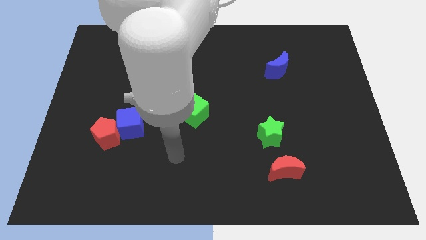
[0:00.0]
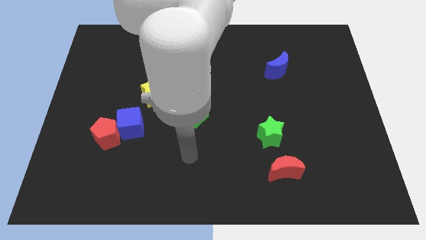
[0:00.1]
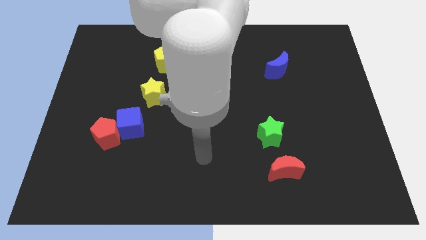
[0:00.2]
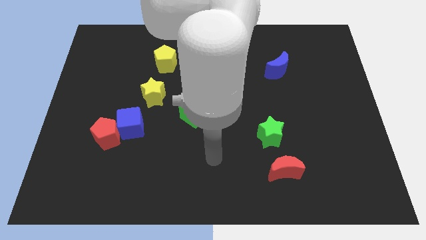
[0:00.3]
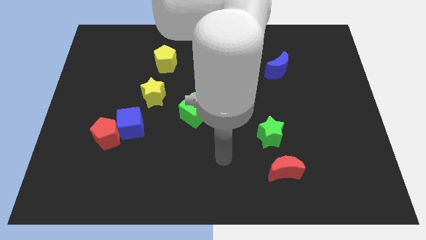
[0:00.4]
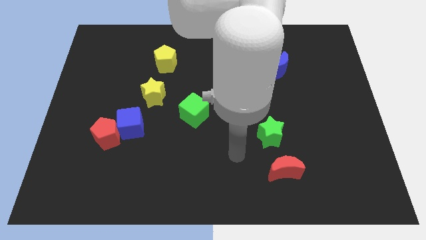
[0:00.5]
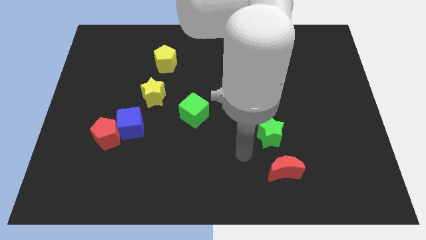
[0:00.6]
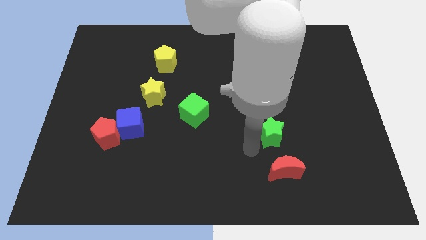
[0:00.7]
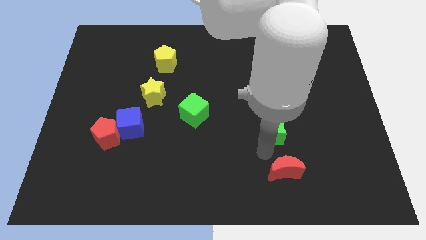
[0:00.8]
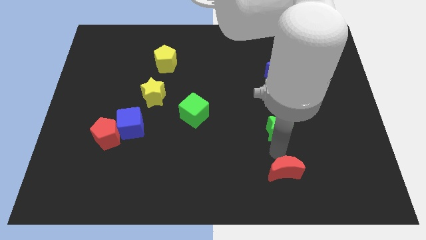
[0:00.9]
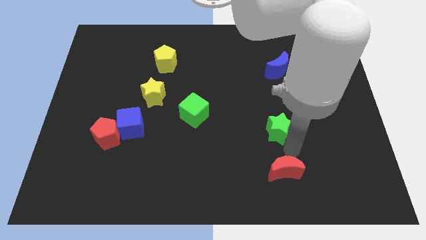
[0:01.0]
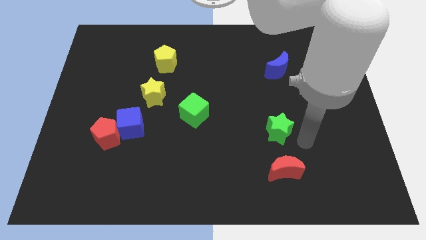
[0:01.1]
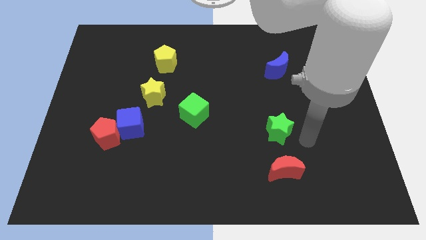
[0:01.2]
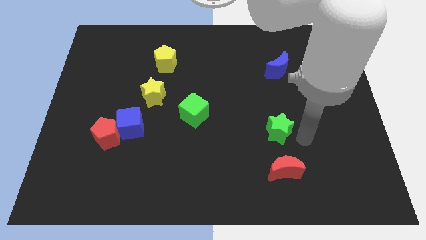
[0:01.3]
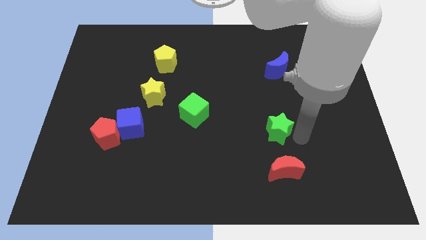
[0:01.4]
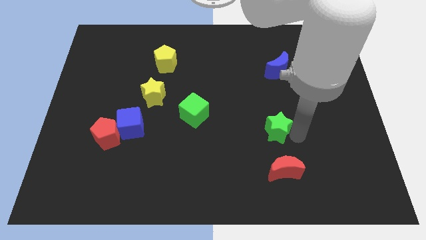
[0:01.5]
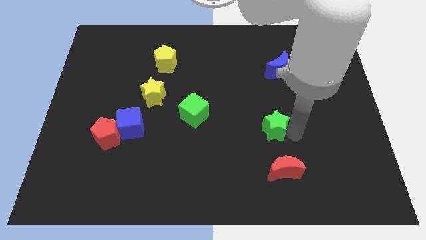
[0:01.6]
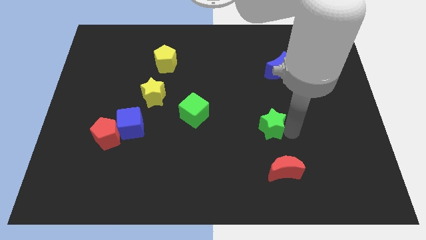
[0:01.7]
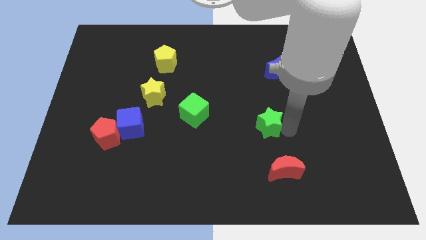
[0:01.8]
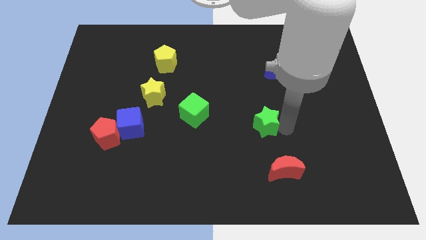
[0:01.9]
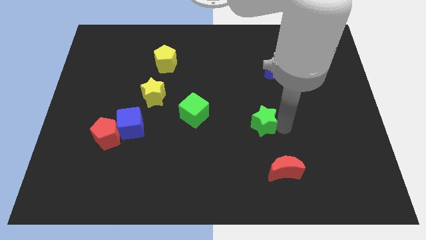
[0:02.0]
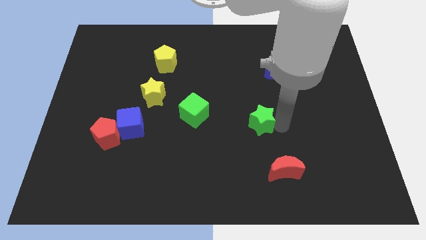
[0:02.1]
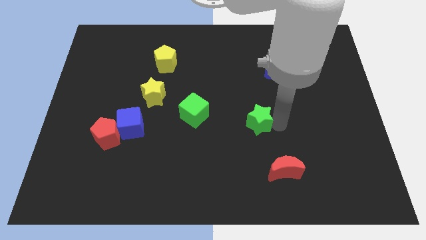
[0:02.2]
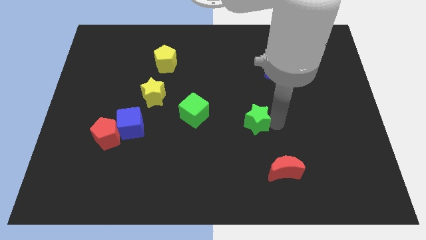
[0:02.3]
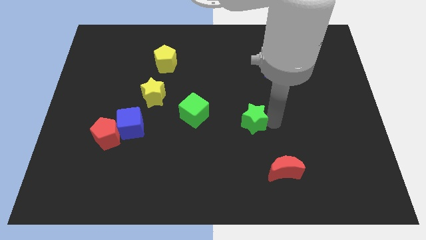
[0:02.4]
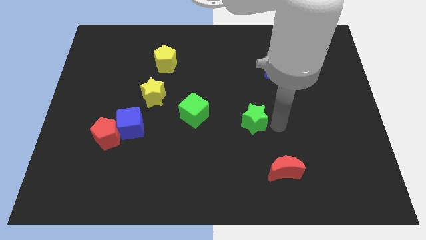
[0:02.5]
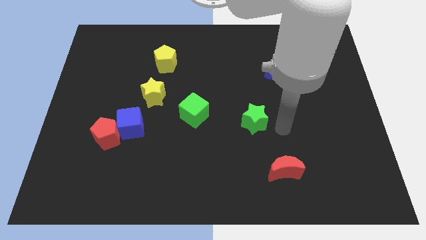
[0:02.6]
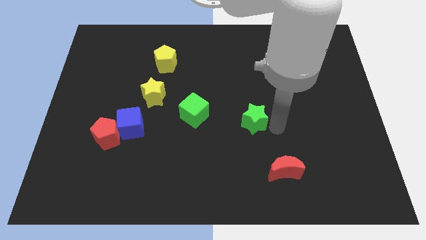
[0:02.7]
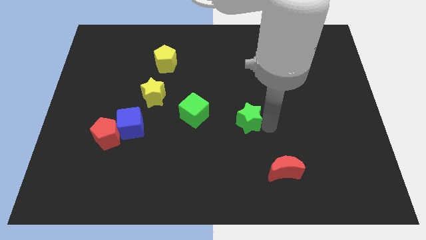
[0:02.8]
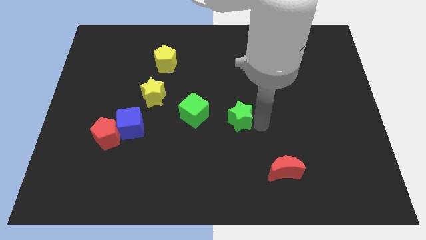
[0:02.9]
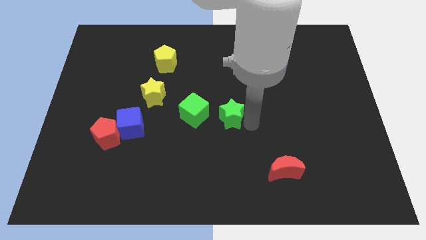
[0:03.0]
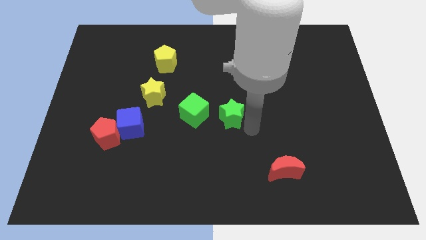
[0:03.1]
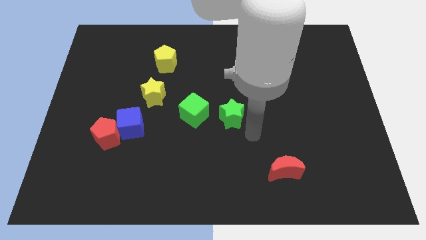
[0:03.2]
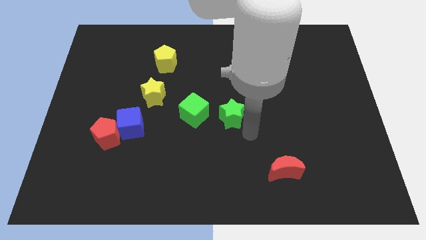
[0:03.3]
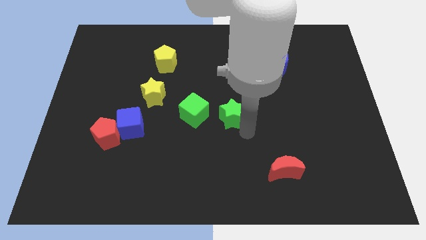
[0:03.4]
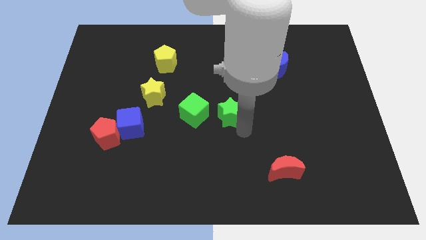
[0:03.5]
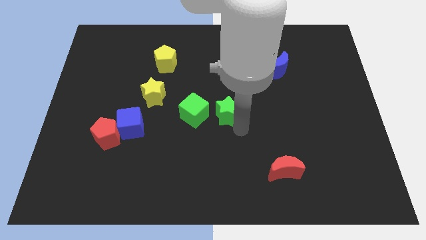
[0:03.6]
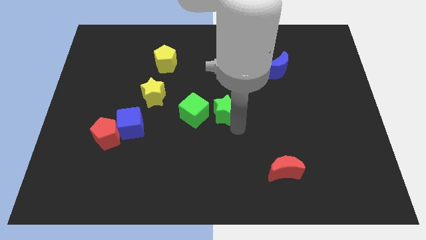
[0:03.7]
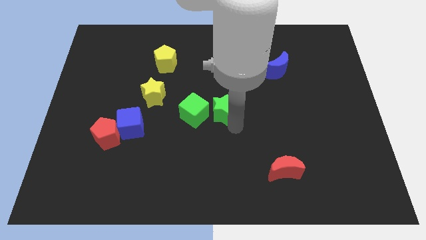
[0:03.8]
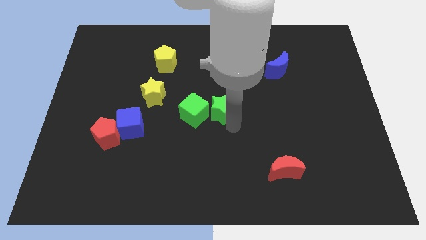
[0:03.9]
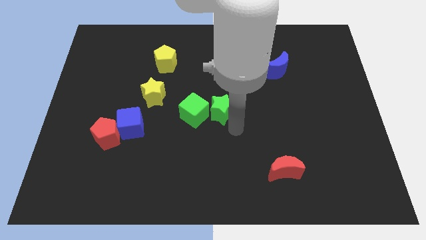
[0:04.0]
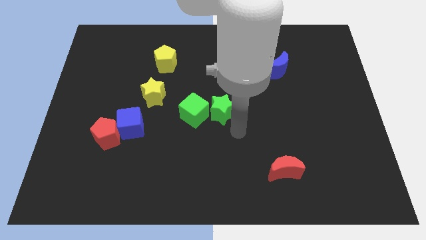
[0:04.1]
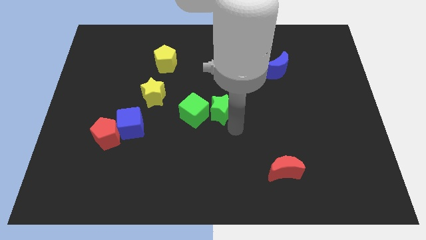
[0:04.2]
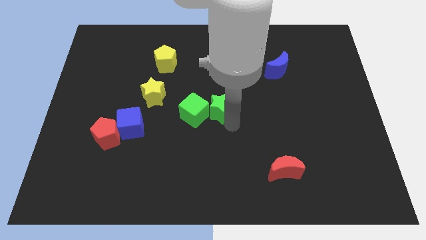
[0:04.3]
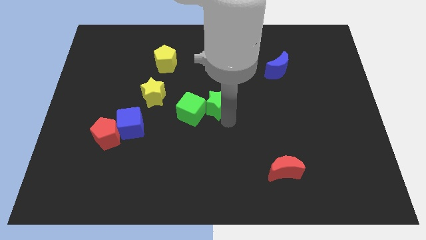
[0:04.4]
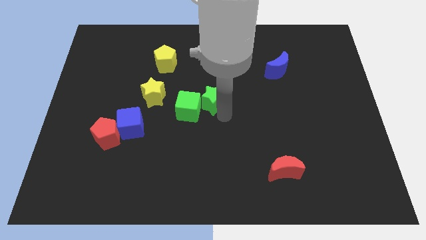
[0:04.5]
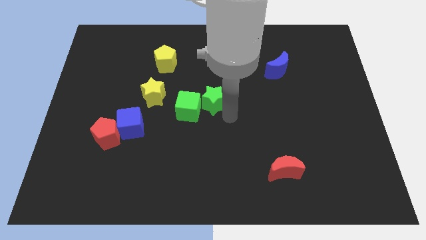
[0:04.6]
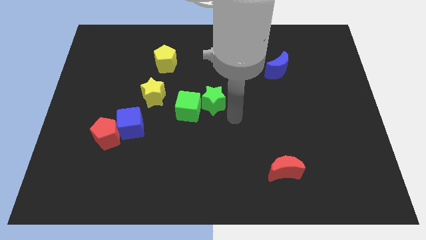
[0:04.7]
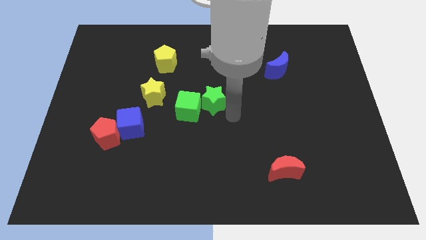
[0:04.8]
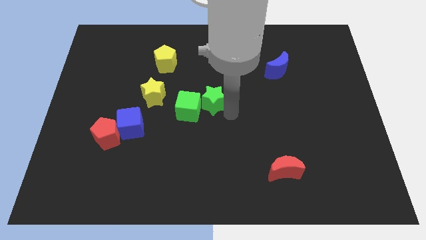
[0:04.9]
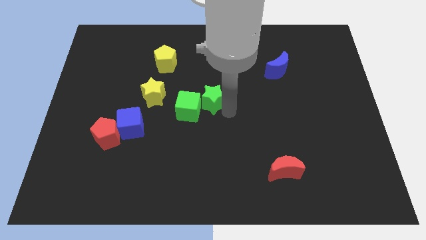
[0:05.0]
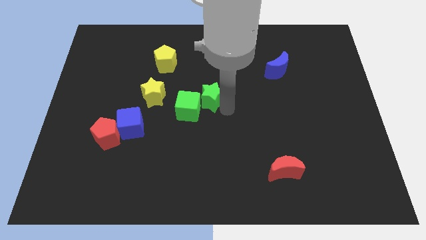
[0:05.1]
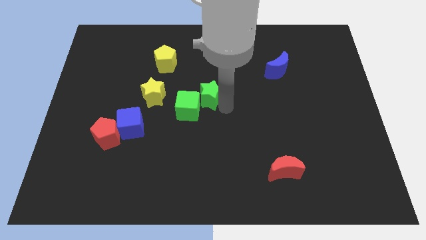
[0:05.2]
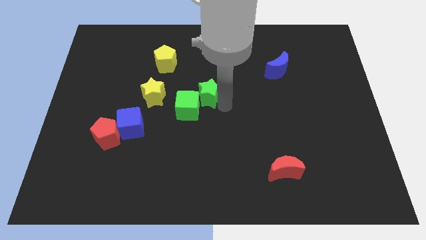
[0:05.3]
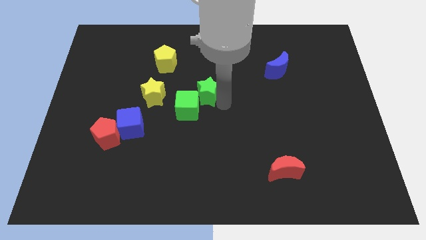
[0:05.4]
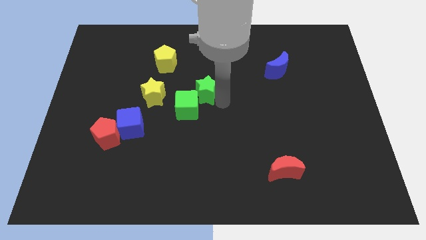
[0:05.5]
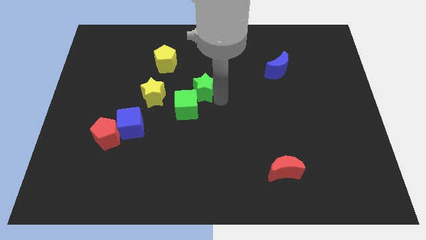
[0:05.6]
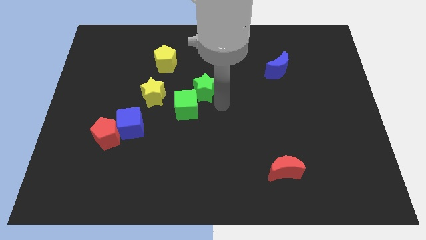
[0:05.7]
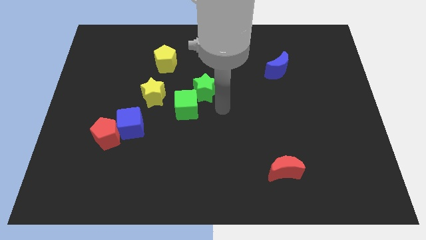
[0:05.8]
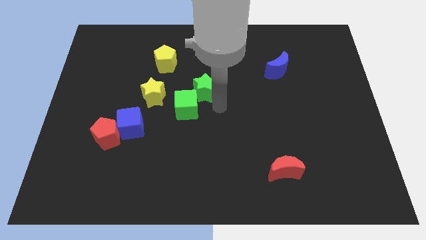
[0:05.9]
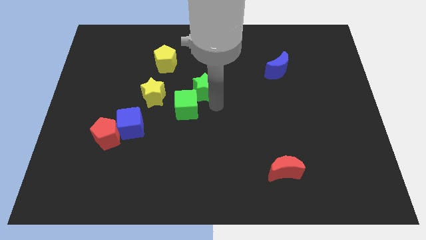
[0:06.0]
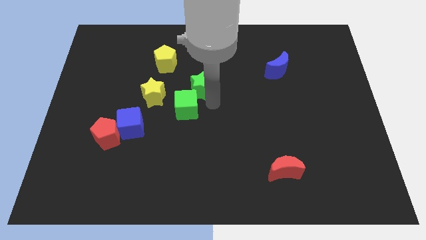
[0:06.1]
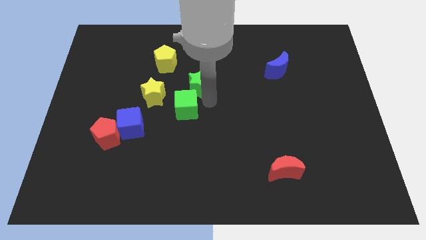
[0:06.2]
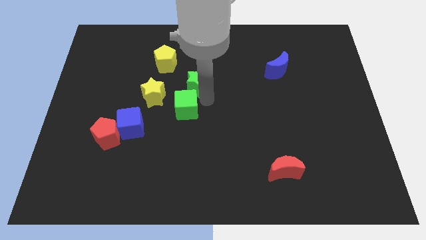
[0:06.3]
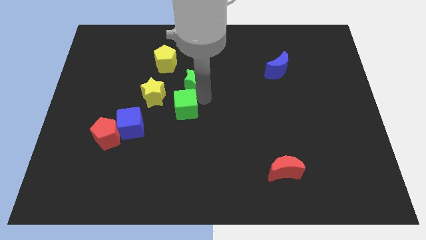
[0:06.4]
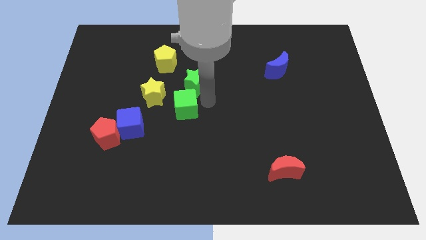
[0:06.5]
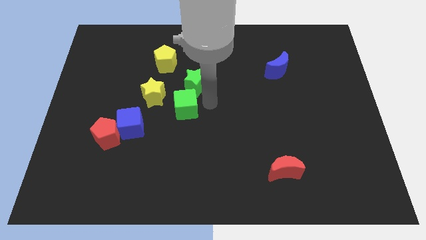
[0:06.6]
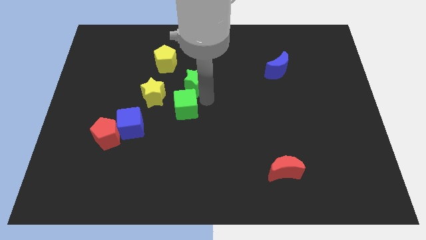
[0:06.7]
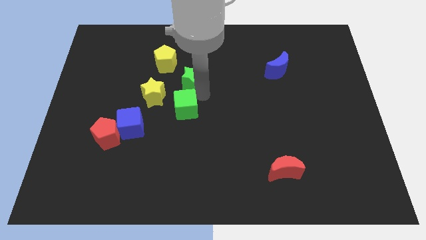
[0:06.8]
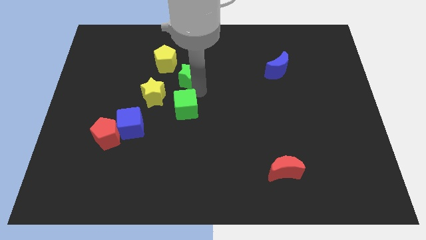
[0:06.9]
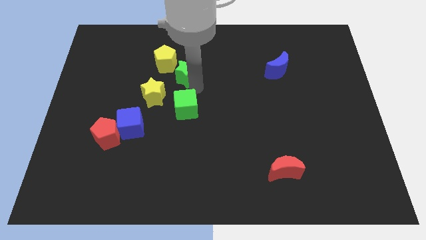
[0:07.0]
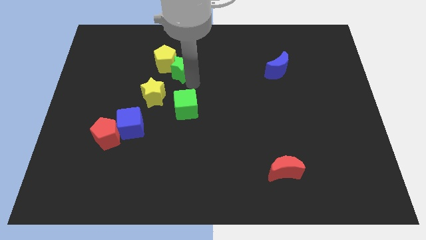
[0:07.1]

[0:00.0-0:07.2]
put the green star to the yellow pentagon

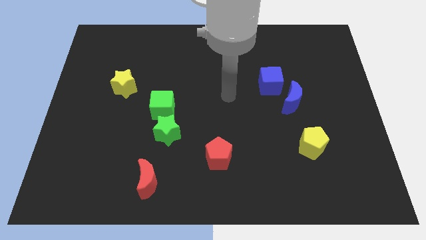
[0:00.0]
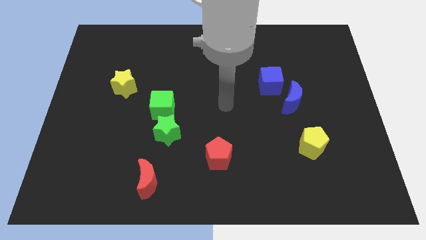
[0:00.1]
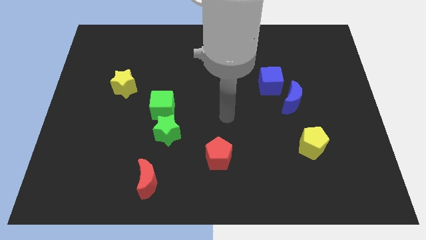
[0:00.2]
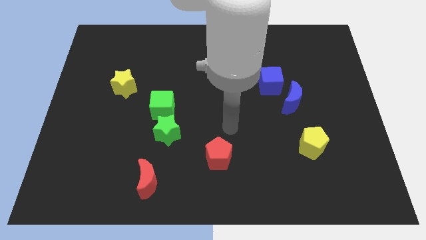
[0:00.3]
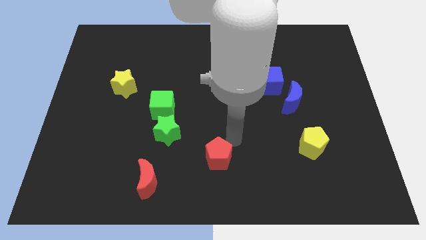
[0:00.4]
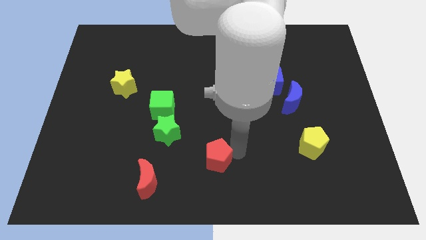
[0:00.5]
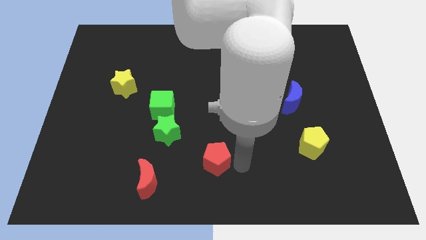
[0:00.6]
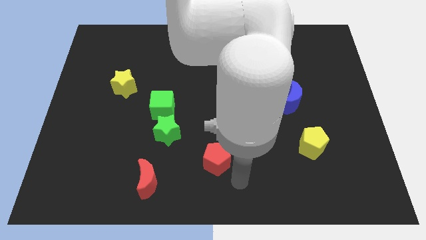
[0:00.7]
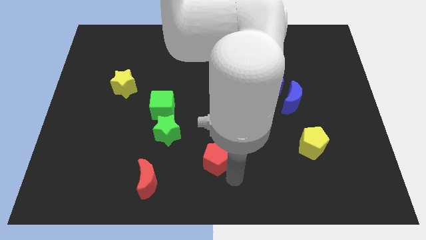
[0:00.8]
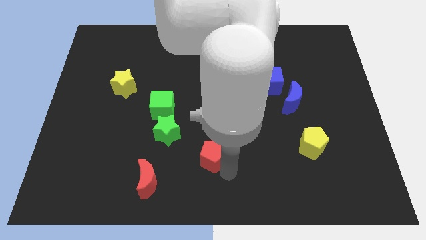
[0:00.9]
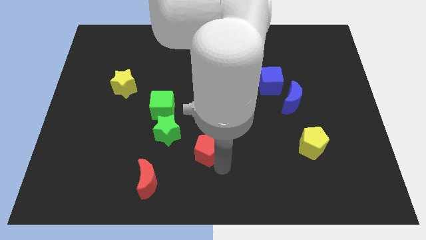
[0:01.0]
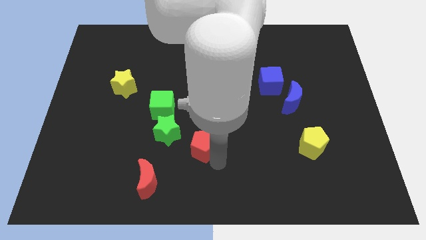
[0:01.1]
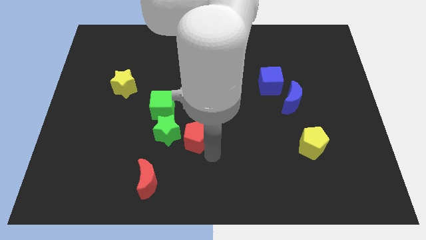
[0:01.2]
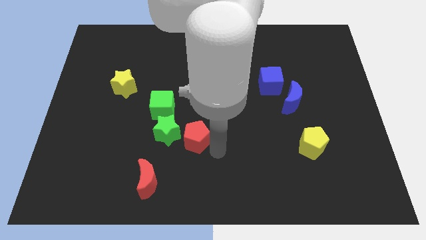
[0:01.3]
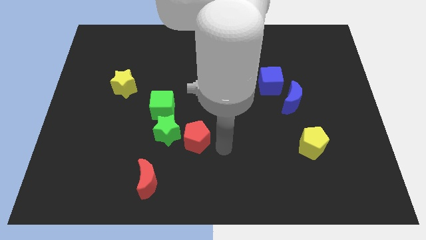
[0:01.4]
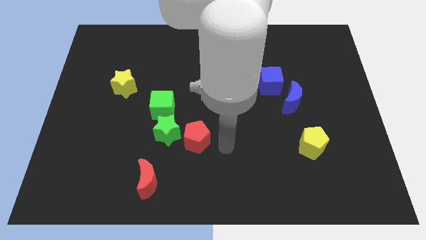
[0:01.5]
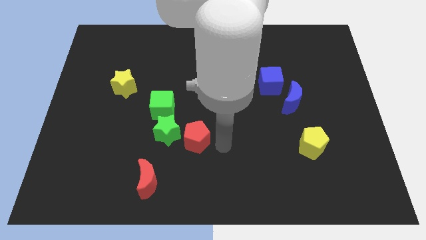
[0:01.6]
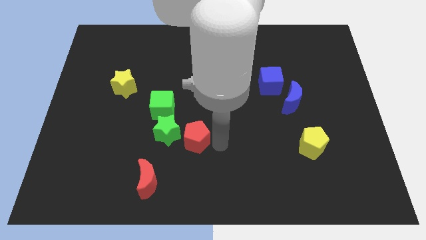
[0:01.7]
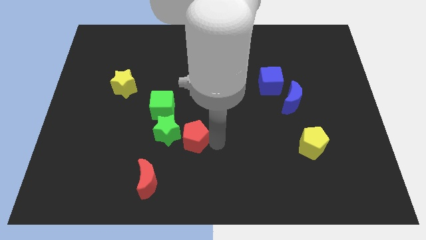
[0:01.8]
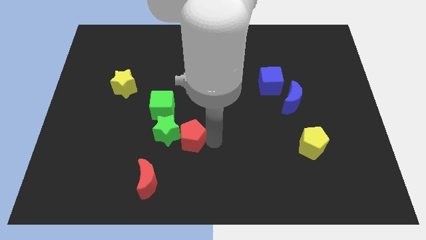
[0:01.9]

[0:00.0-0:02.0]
put the red pentagon towards the green star
